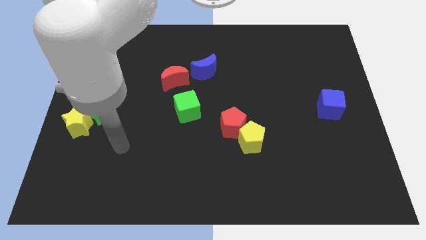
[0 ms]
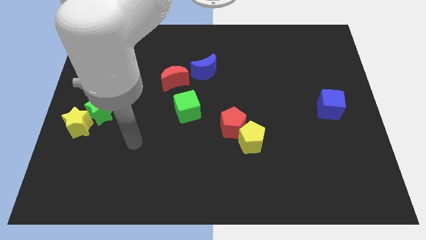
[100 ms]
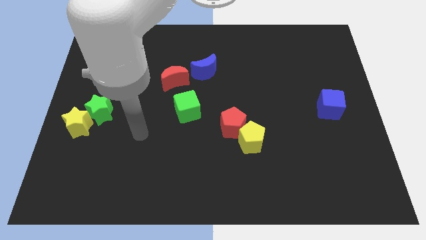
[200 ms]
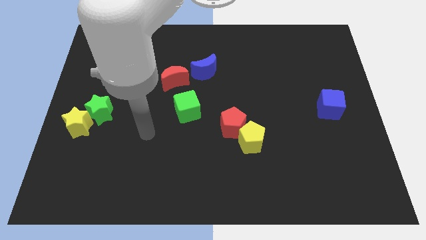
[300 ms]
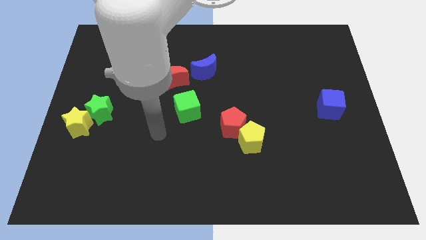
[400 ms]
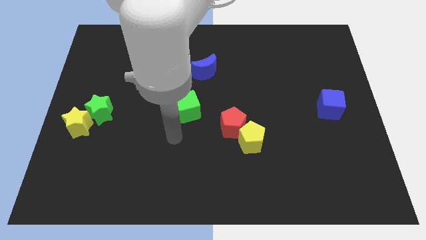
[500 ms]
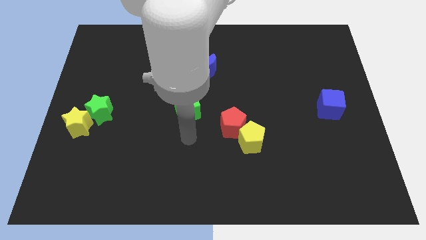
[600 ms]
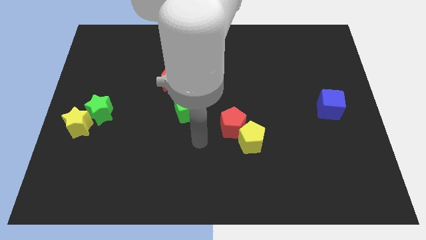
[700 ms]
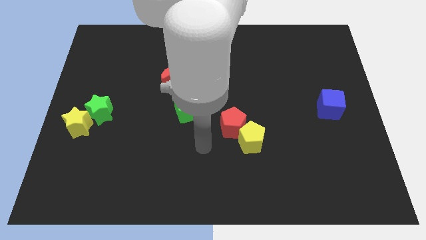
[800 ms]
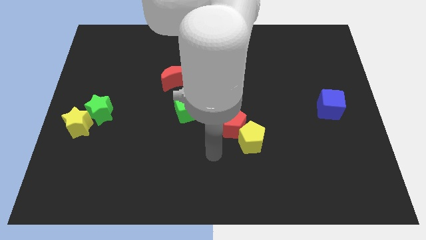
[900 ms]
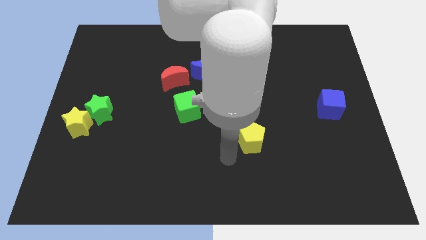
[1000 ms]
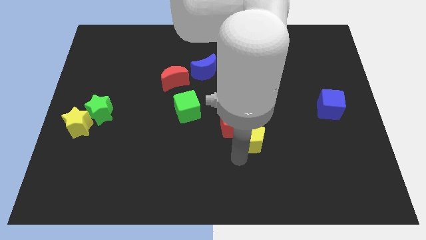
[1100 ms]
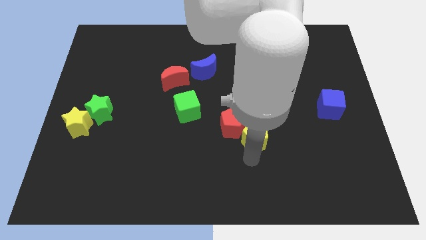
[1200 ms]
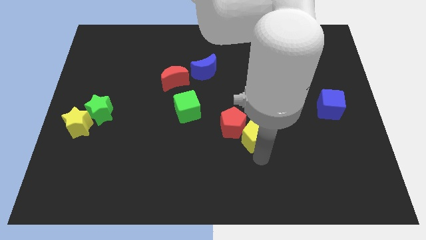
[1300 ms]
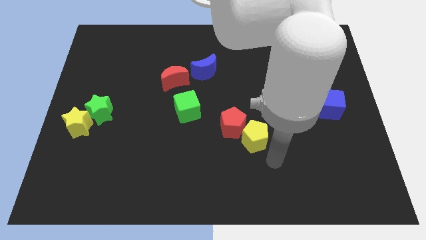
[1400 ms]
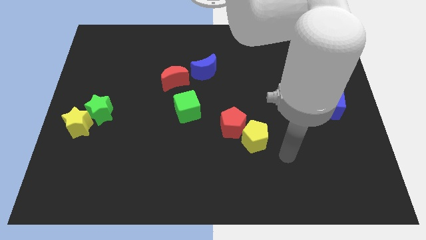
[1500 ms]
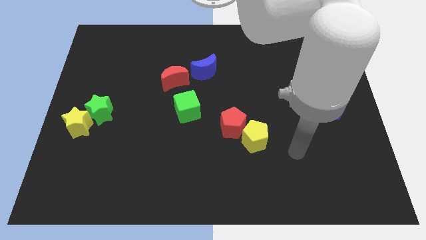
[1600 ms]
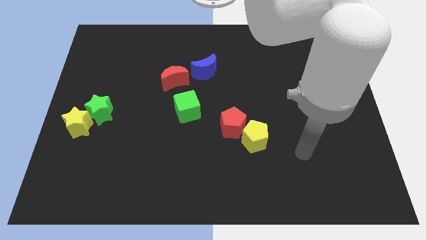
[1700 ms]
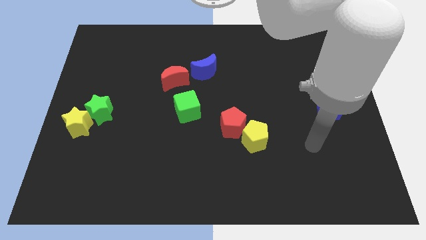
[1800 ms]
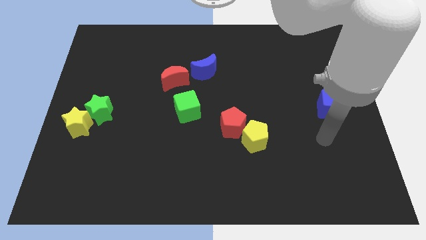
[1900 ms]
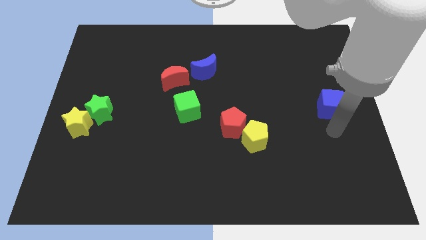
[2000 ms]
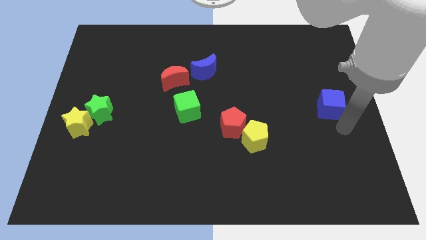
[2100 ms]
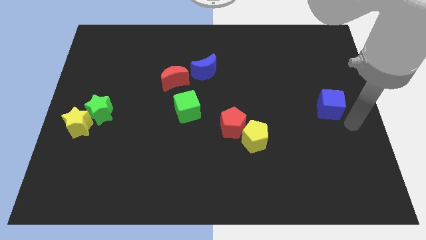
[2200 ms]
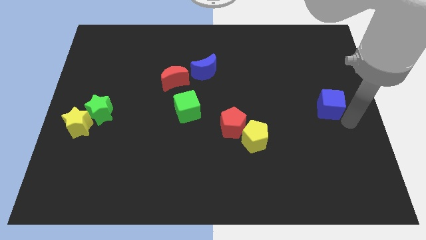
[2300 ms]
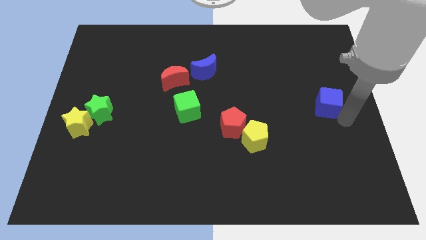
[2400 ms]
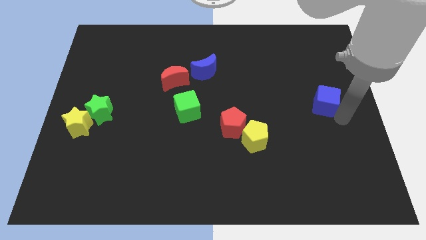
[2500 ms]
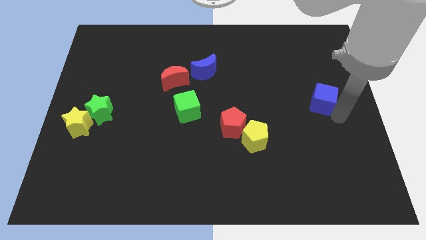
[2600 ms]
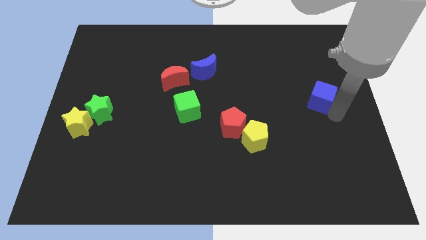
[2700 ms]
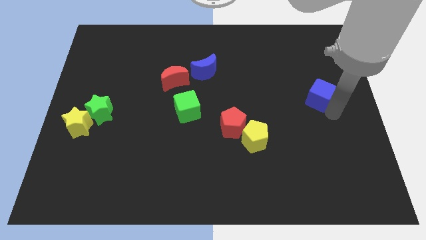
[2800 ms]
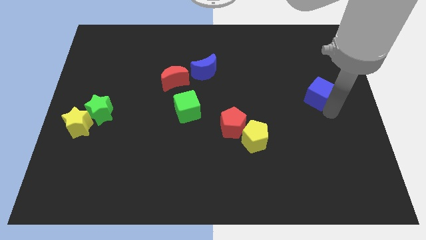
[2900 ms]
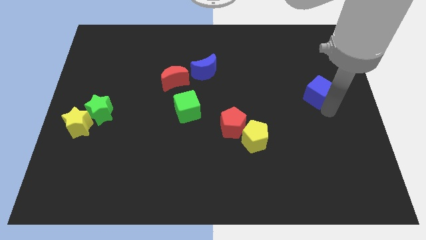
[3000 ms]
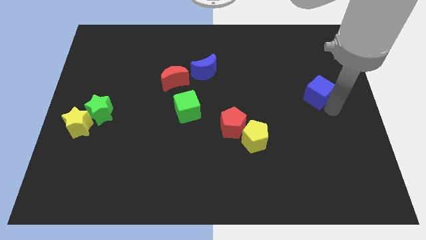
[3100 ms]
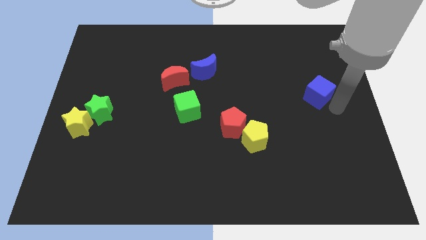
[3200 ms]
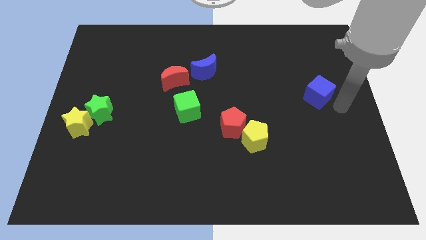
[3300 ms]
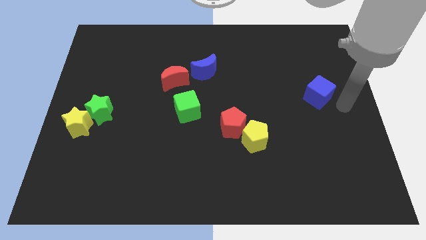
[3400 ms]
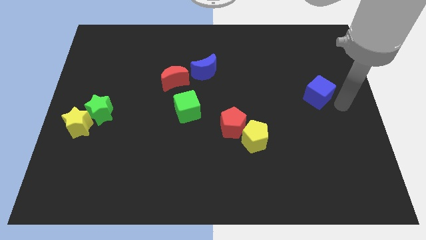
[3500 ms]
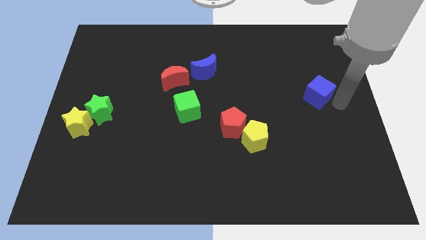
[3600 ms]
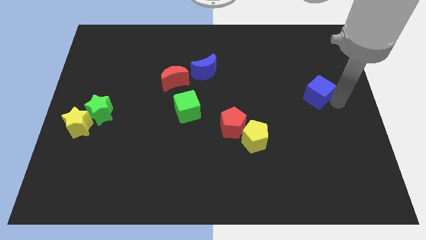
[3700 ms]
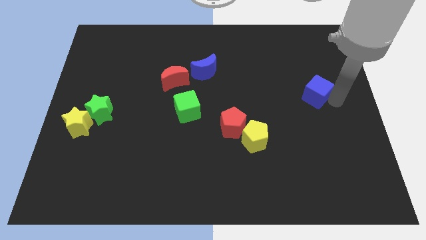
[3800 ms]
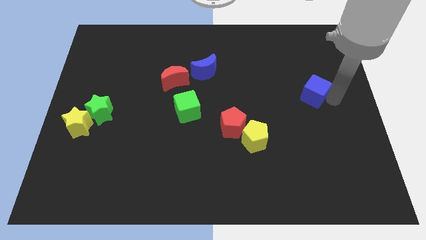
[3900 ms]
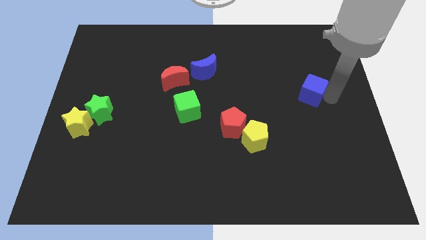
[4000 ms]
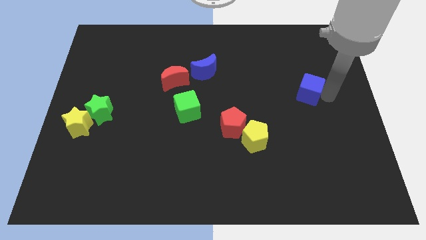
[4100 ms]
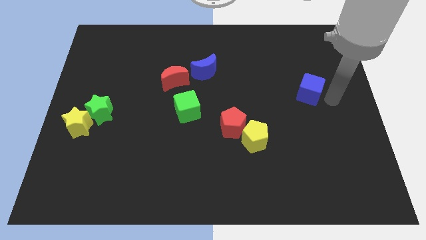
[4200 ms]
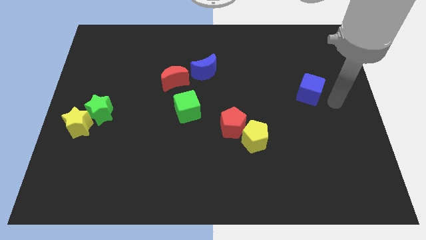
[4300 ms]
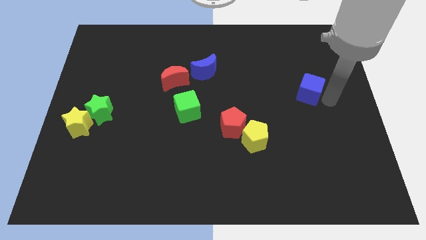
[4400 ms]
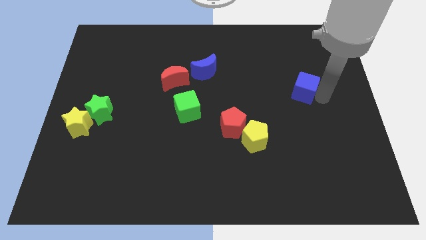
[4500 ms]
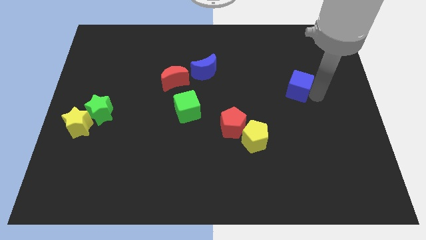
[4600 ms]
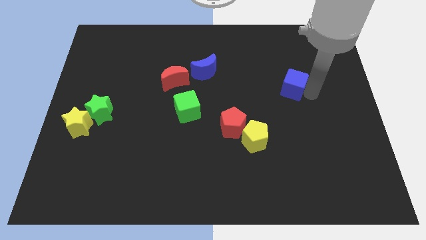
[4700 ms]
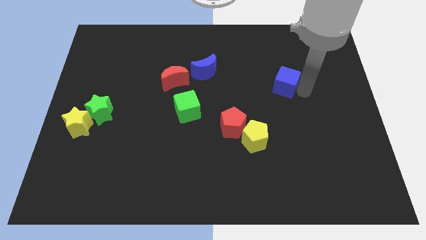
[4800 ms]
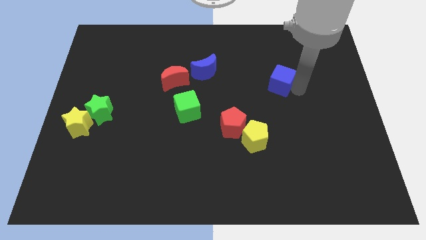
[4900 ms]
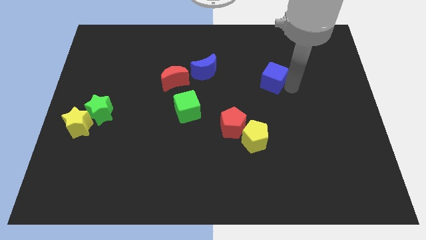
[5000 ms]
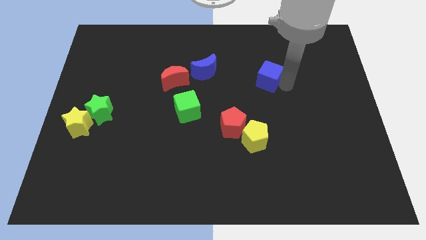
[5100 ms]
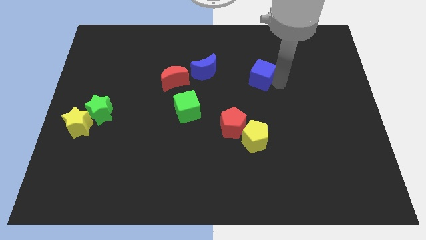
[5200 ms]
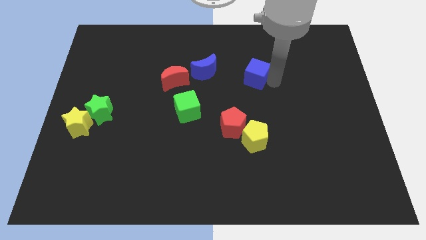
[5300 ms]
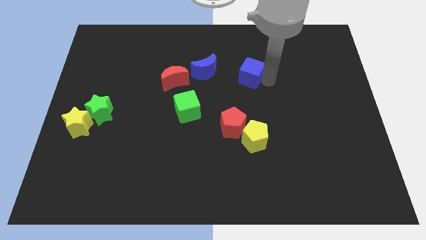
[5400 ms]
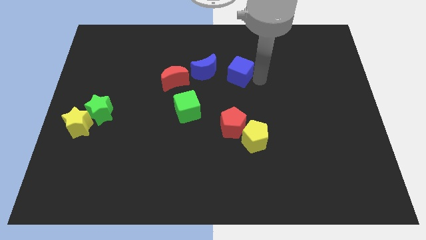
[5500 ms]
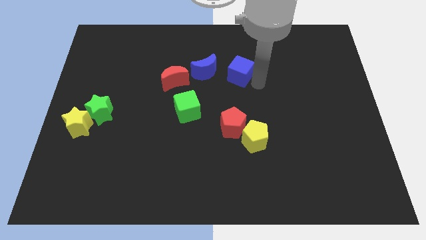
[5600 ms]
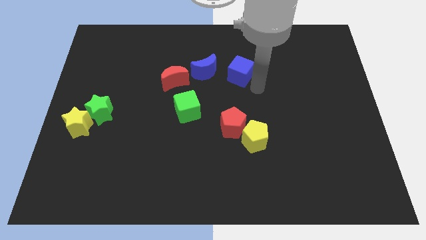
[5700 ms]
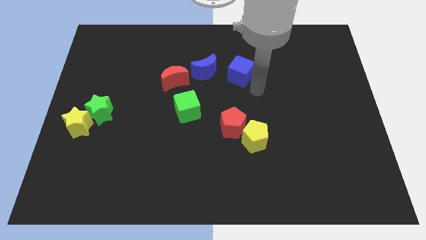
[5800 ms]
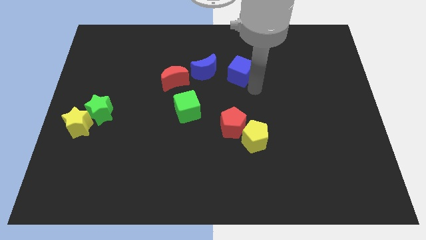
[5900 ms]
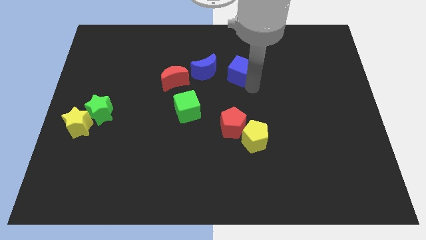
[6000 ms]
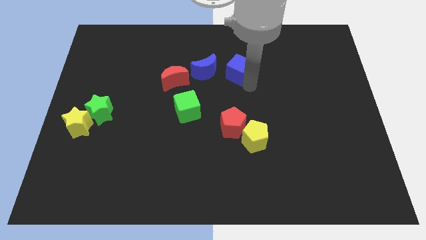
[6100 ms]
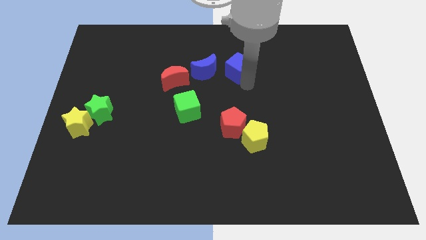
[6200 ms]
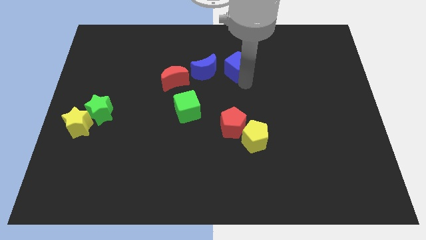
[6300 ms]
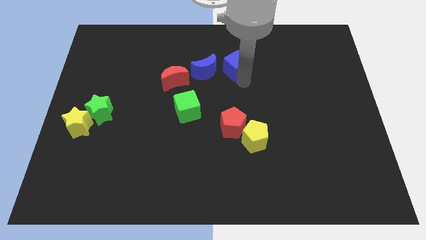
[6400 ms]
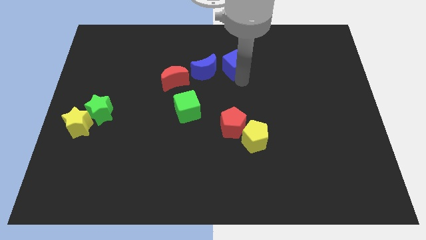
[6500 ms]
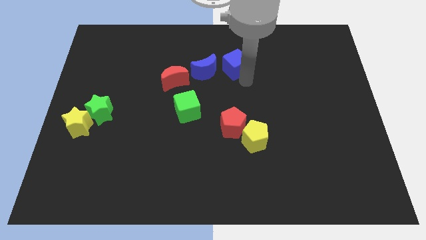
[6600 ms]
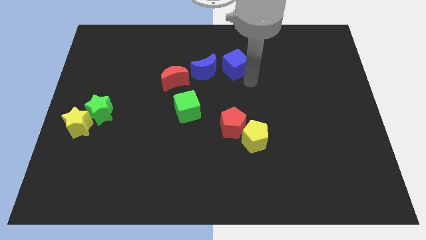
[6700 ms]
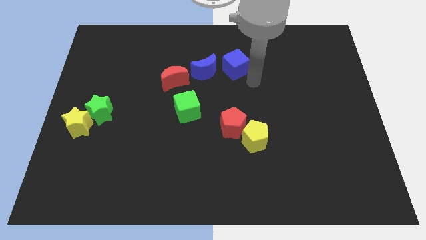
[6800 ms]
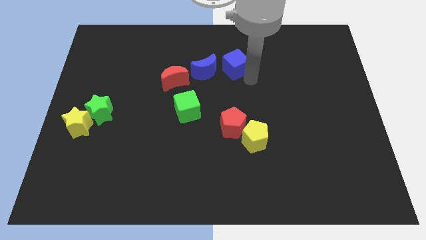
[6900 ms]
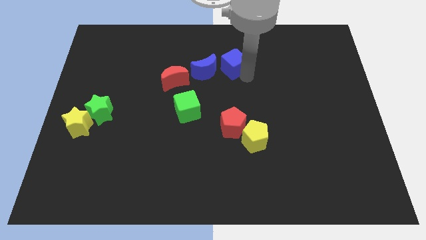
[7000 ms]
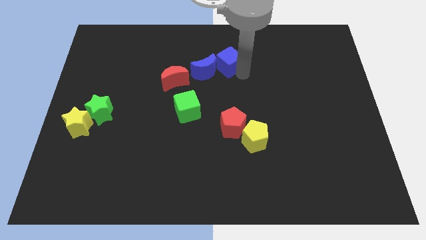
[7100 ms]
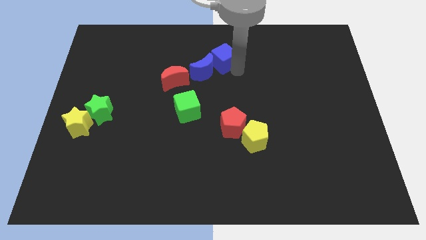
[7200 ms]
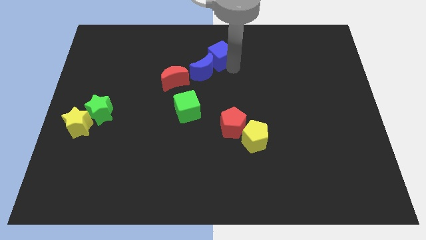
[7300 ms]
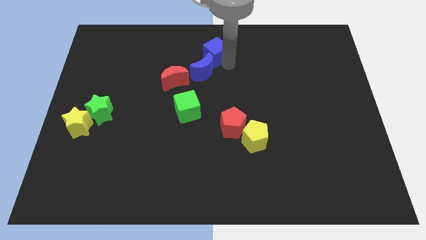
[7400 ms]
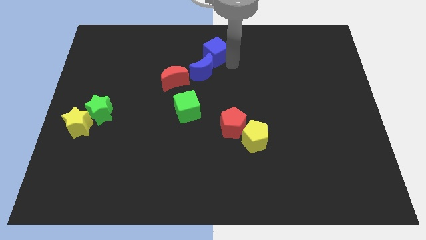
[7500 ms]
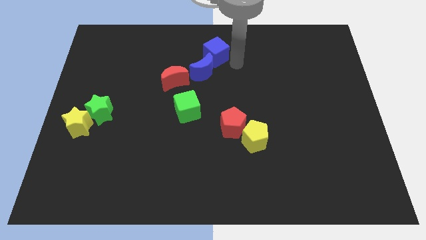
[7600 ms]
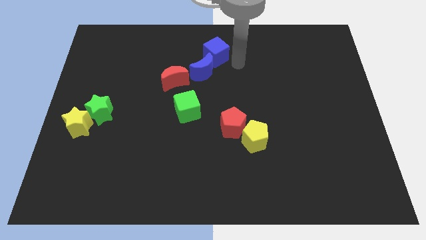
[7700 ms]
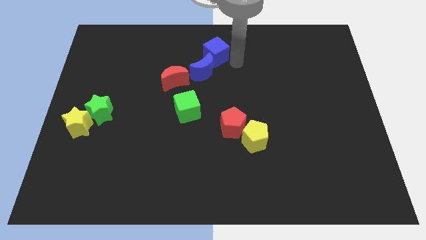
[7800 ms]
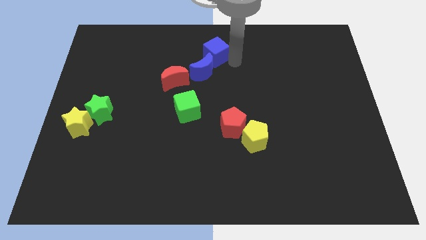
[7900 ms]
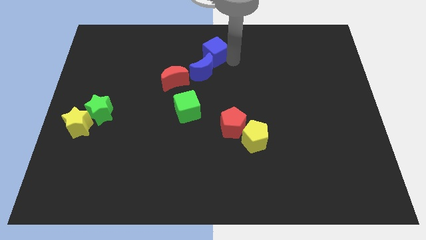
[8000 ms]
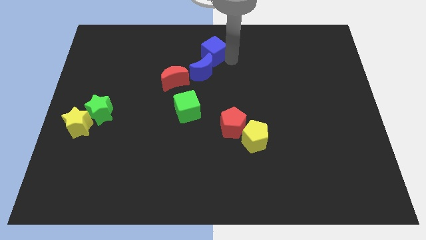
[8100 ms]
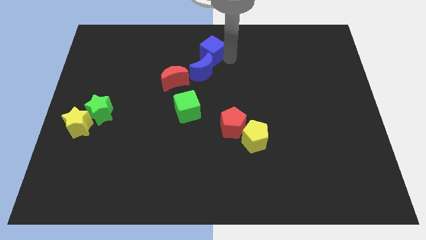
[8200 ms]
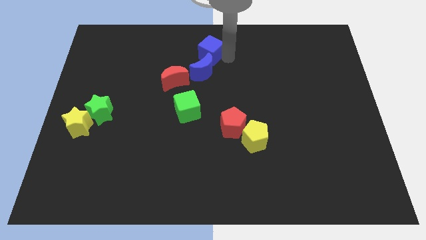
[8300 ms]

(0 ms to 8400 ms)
slide the blue cube to the top right side of the red moon
